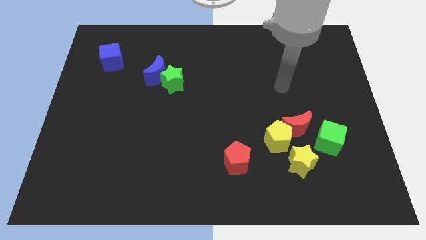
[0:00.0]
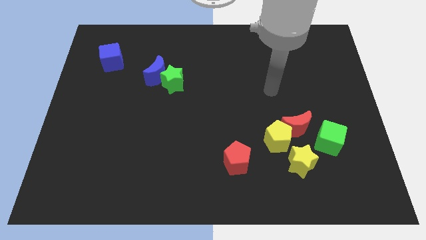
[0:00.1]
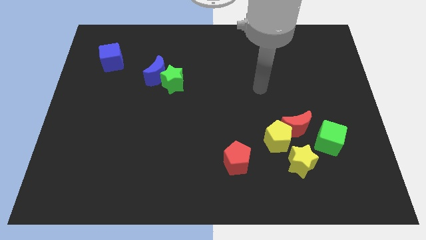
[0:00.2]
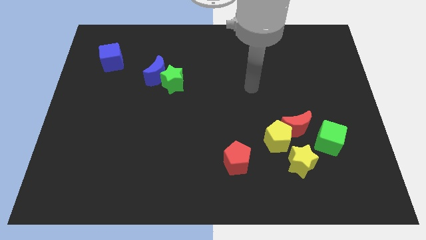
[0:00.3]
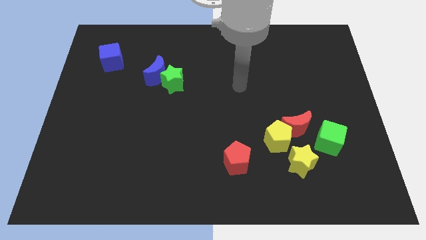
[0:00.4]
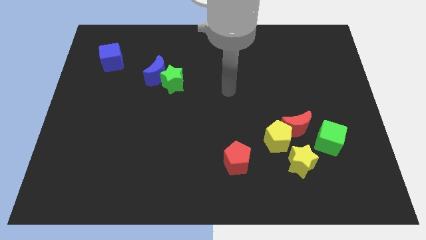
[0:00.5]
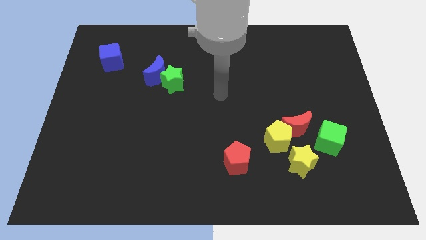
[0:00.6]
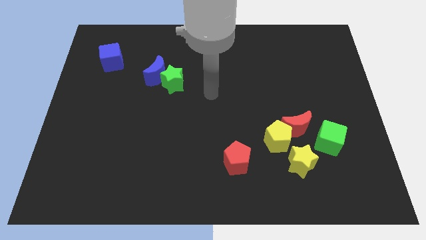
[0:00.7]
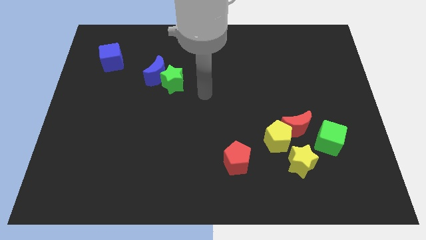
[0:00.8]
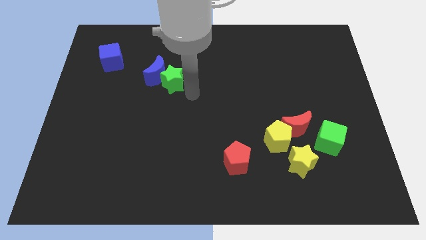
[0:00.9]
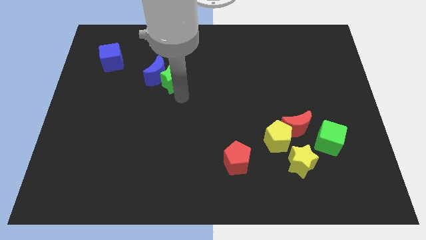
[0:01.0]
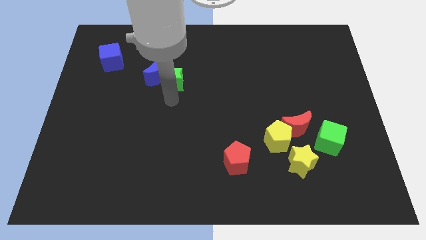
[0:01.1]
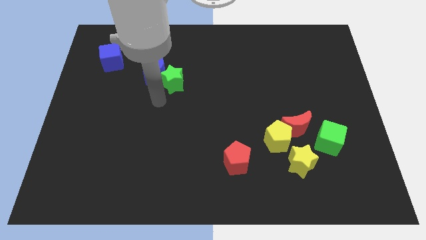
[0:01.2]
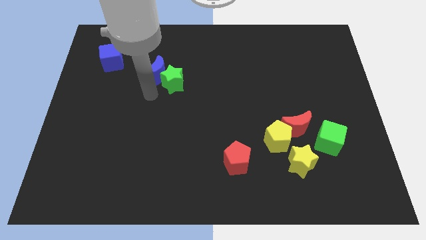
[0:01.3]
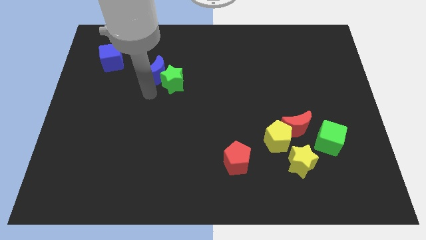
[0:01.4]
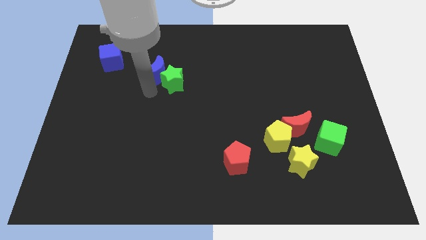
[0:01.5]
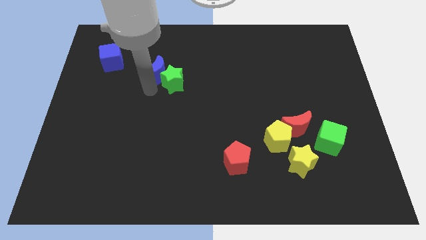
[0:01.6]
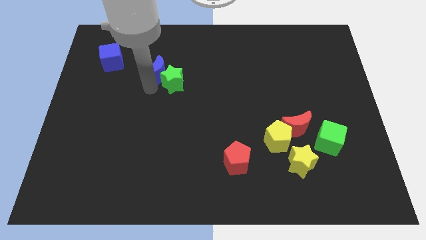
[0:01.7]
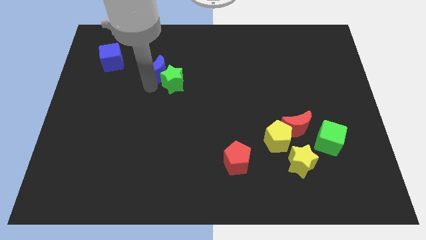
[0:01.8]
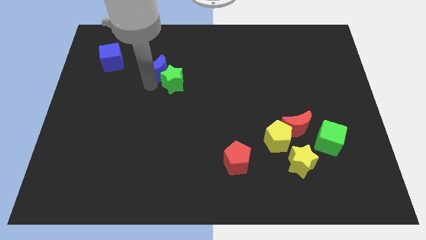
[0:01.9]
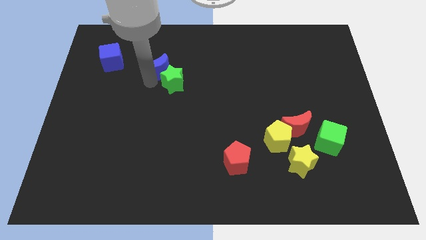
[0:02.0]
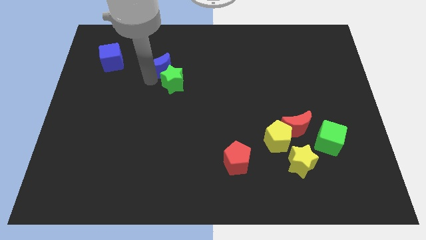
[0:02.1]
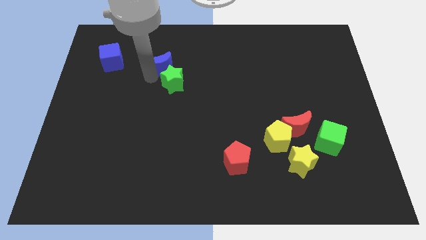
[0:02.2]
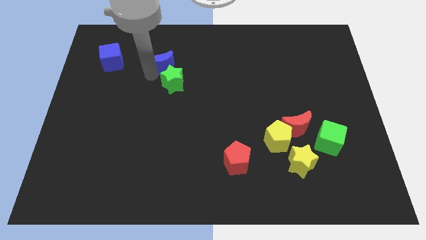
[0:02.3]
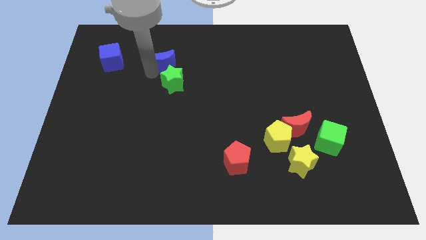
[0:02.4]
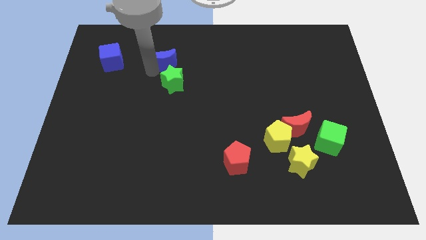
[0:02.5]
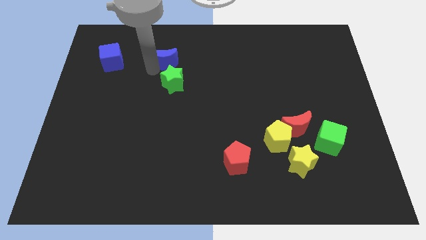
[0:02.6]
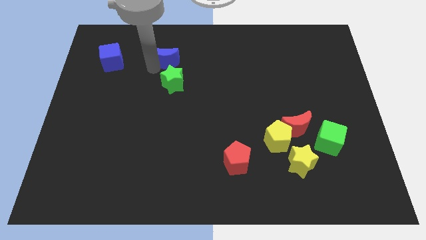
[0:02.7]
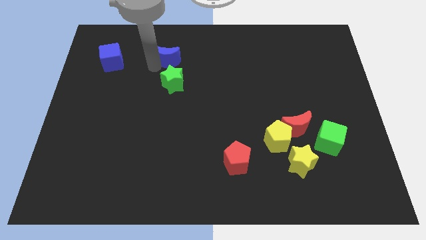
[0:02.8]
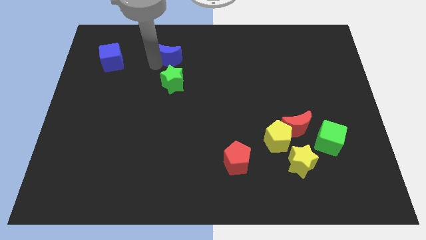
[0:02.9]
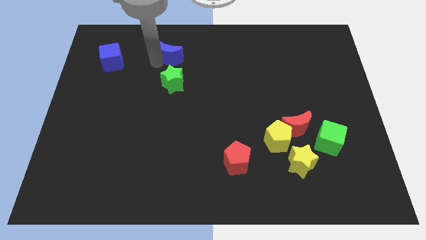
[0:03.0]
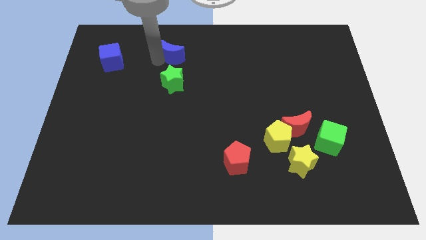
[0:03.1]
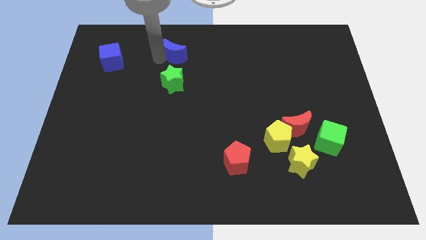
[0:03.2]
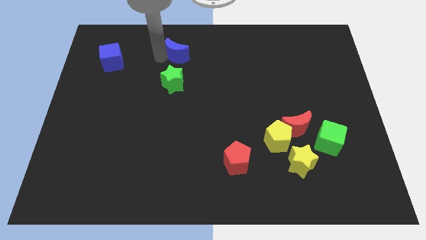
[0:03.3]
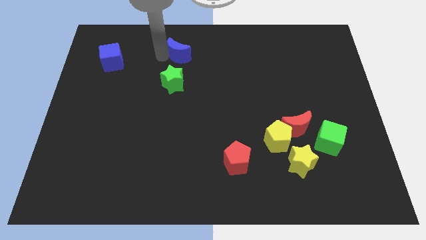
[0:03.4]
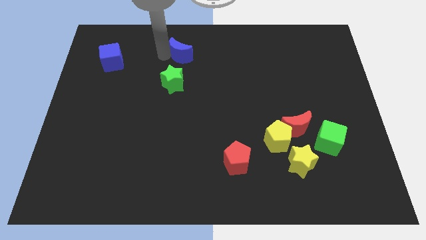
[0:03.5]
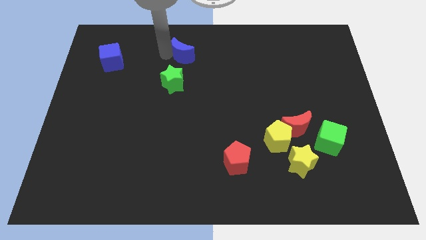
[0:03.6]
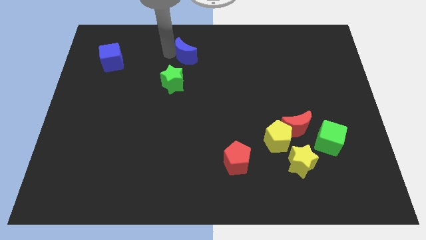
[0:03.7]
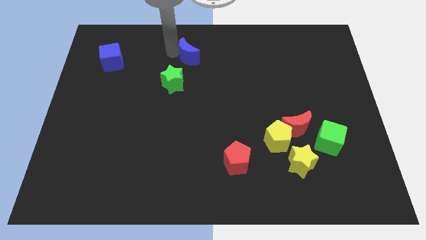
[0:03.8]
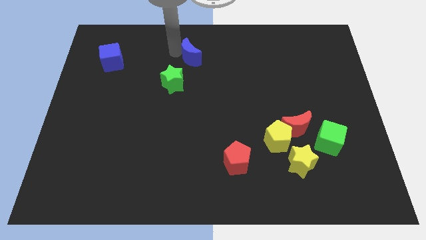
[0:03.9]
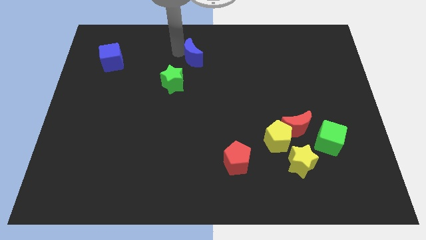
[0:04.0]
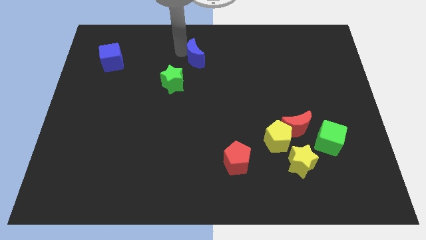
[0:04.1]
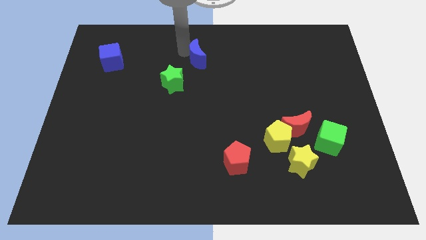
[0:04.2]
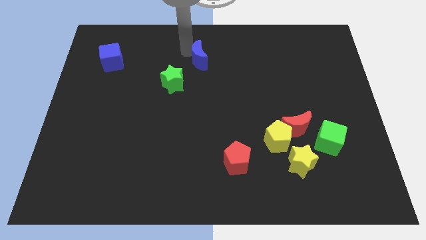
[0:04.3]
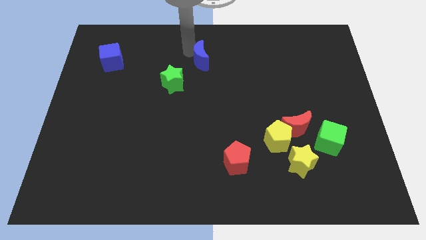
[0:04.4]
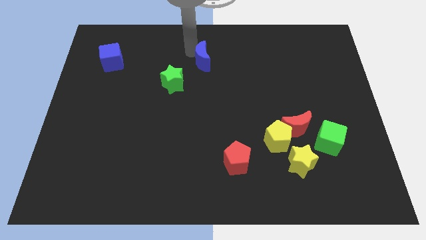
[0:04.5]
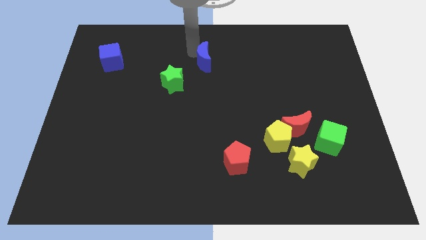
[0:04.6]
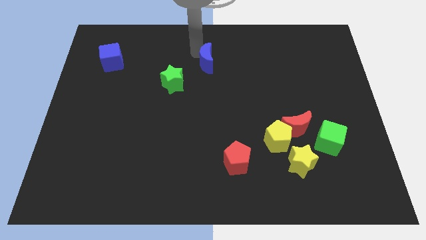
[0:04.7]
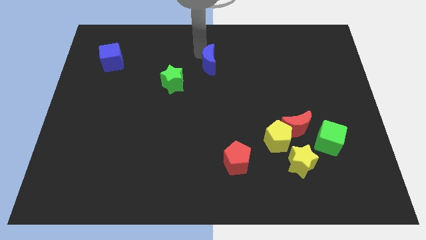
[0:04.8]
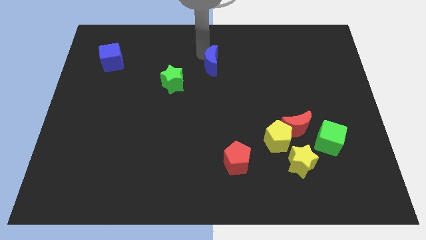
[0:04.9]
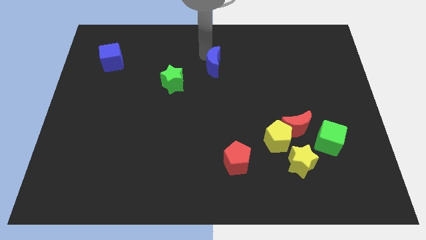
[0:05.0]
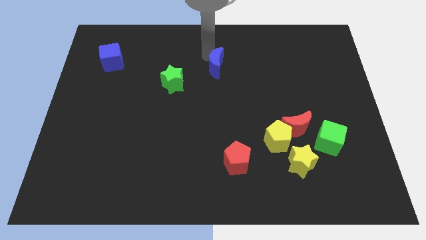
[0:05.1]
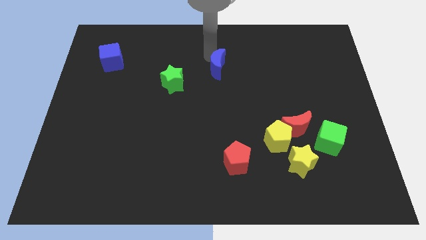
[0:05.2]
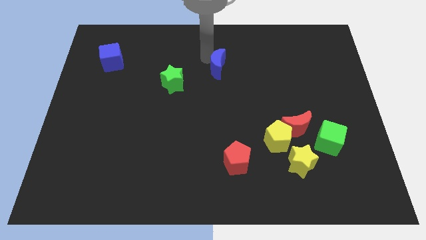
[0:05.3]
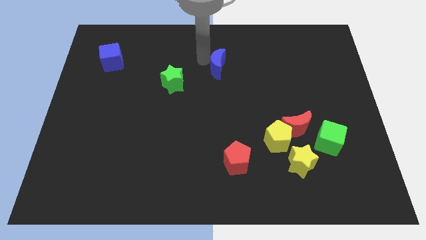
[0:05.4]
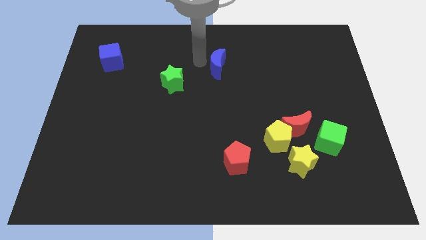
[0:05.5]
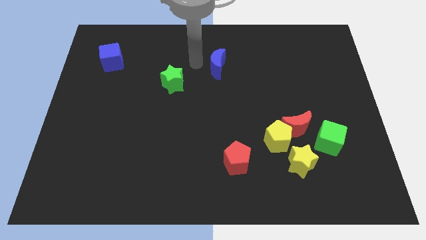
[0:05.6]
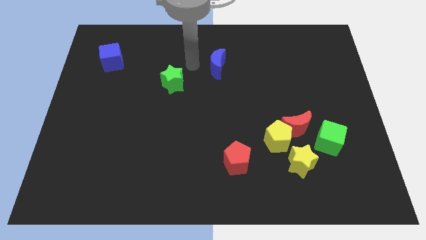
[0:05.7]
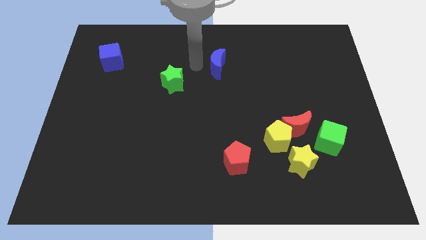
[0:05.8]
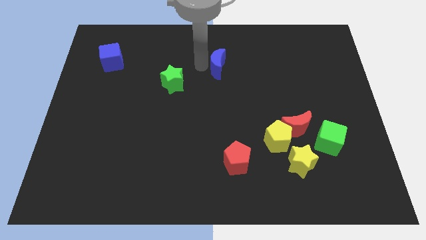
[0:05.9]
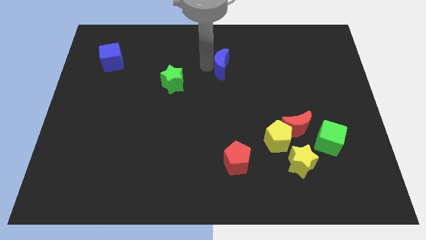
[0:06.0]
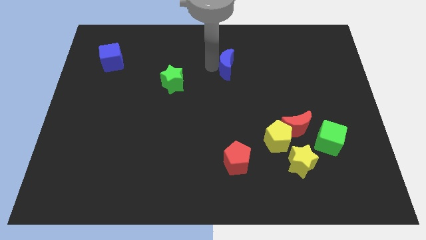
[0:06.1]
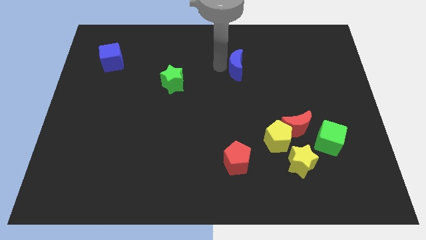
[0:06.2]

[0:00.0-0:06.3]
slide the blue moon right

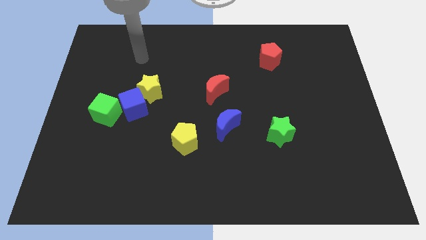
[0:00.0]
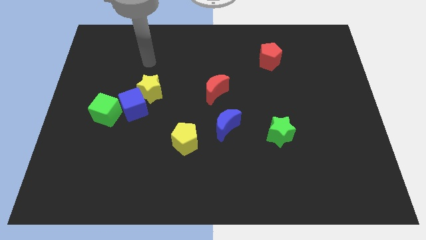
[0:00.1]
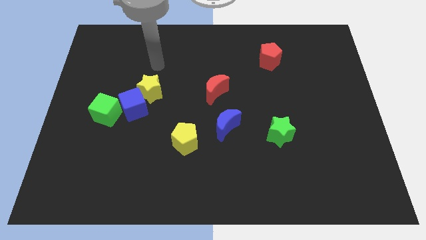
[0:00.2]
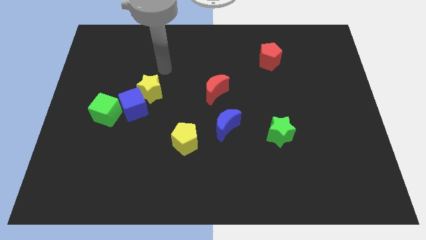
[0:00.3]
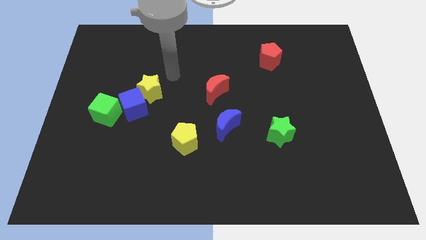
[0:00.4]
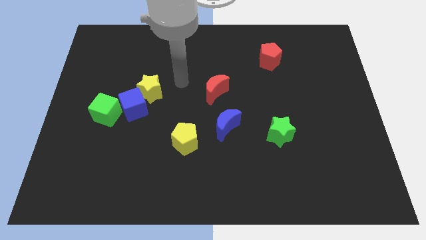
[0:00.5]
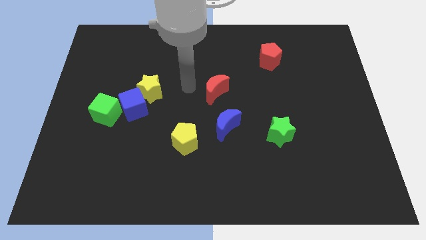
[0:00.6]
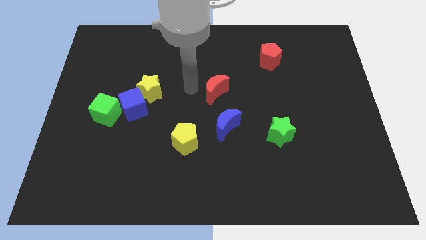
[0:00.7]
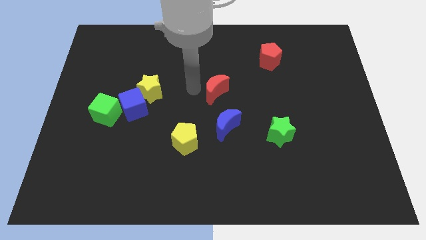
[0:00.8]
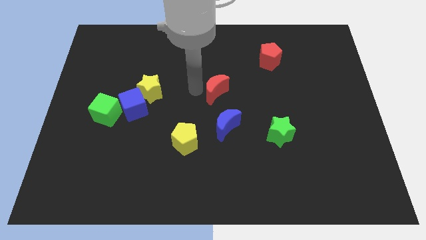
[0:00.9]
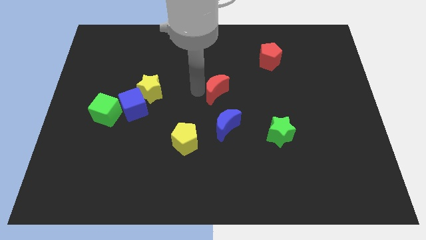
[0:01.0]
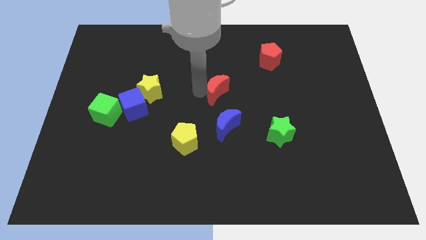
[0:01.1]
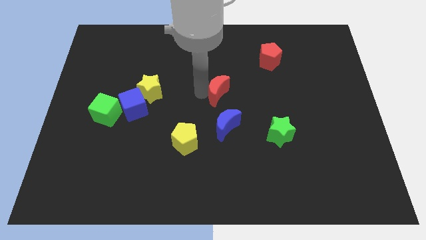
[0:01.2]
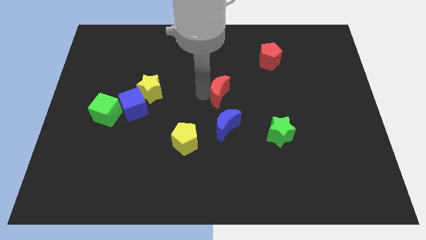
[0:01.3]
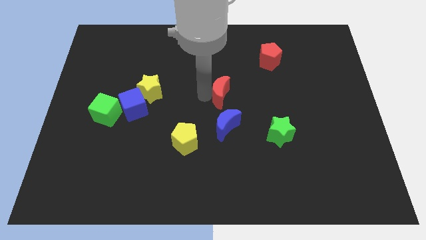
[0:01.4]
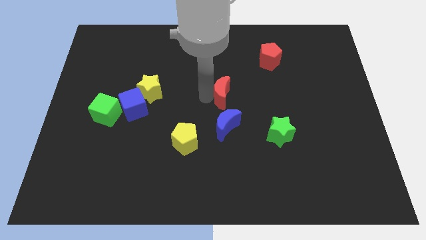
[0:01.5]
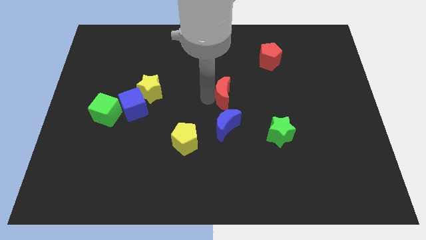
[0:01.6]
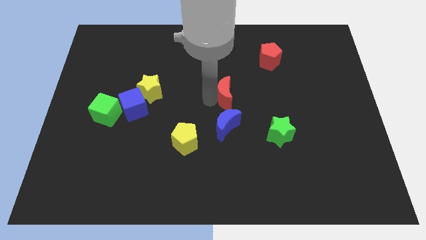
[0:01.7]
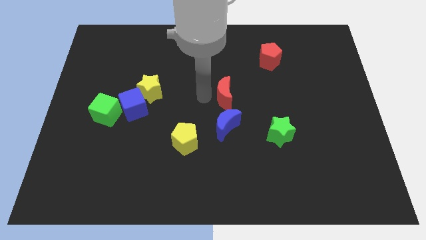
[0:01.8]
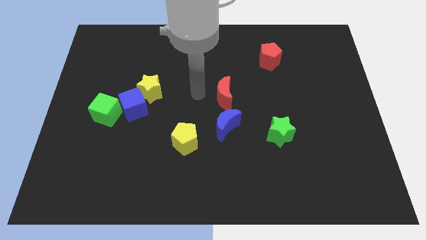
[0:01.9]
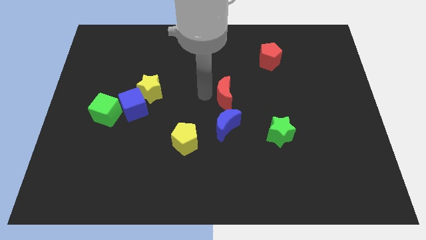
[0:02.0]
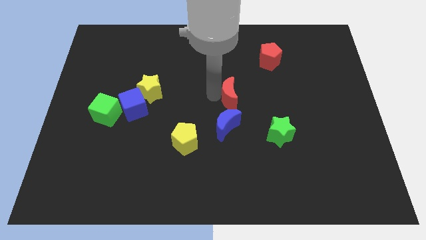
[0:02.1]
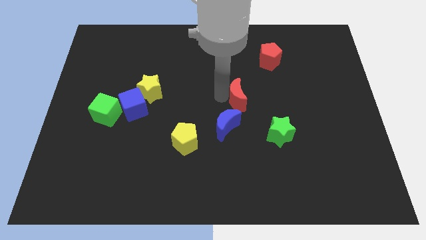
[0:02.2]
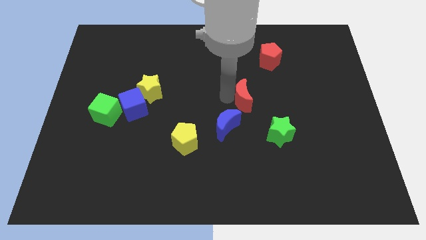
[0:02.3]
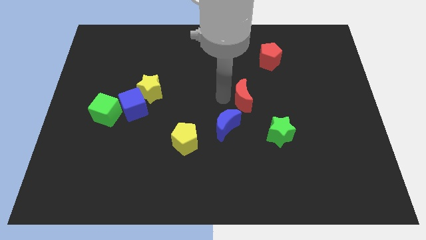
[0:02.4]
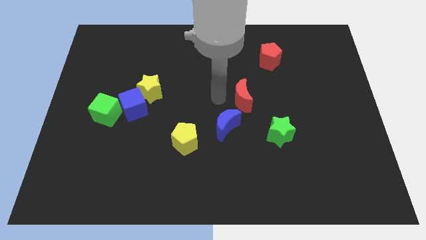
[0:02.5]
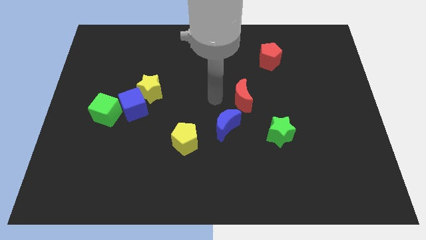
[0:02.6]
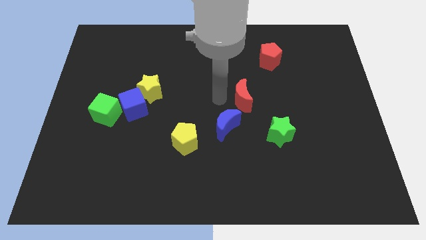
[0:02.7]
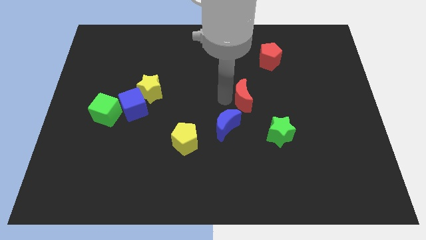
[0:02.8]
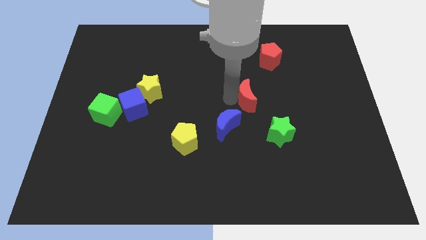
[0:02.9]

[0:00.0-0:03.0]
slightly move the red moon to the right
